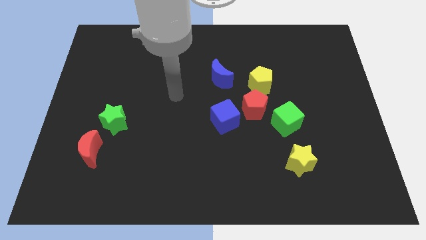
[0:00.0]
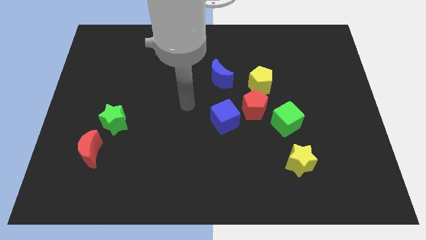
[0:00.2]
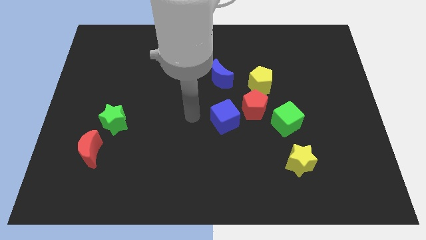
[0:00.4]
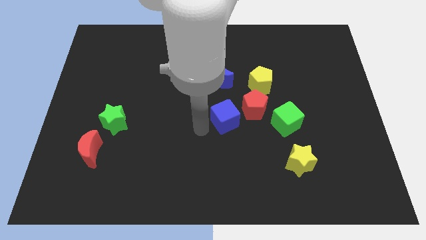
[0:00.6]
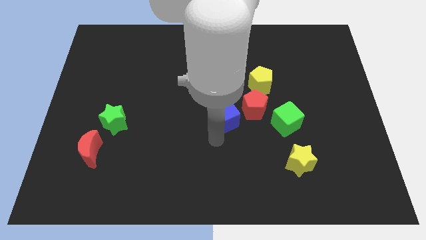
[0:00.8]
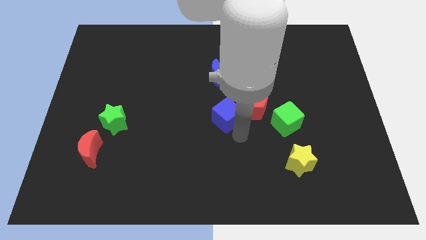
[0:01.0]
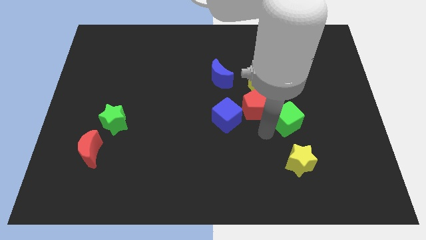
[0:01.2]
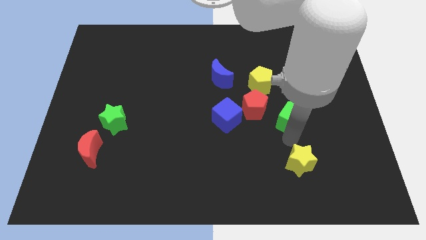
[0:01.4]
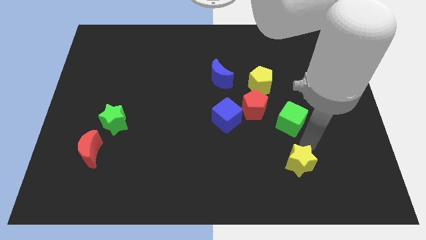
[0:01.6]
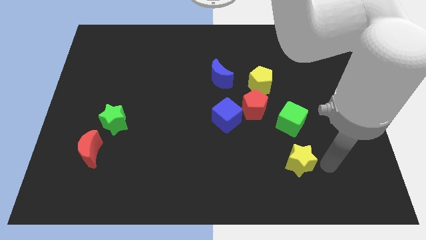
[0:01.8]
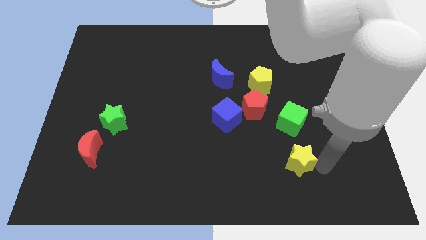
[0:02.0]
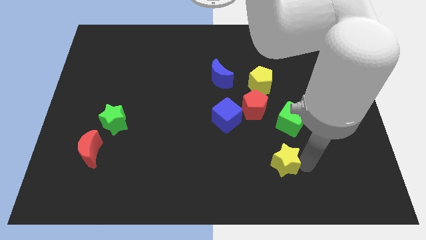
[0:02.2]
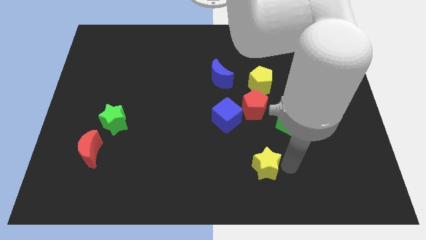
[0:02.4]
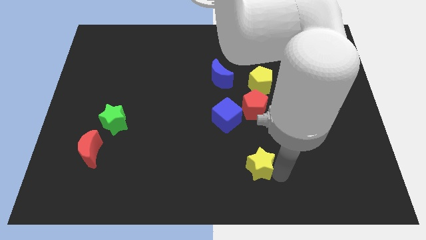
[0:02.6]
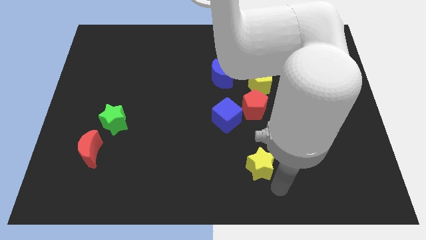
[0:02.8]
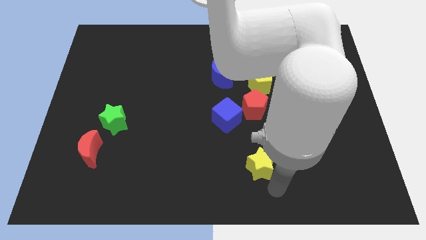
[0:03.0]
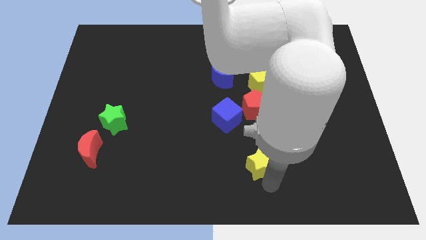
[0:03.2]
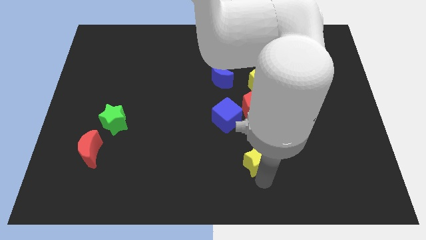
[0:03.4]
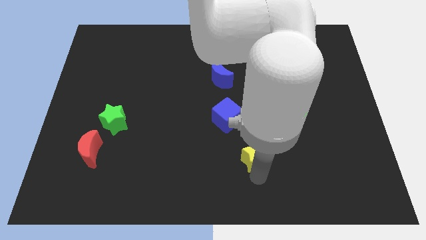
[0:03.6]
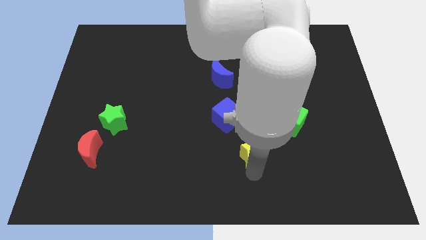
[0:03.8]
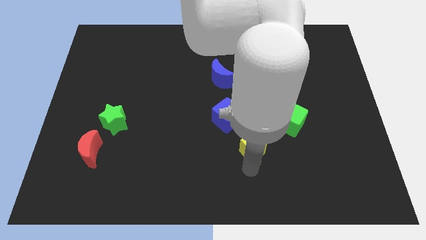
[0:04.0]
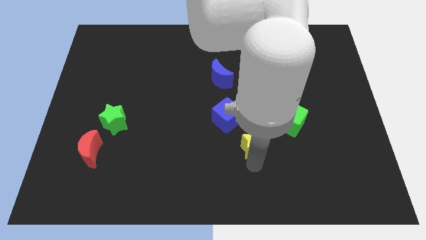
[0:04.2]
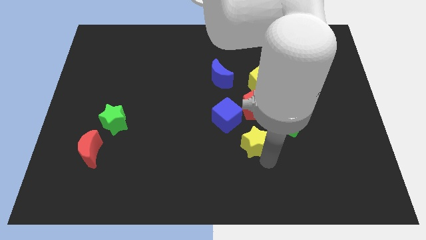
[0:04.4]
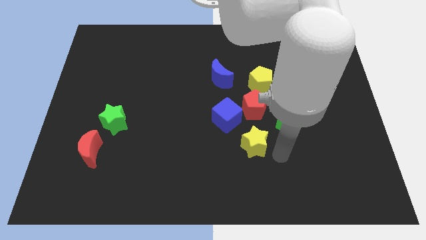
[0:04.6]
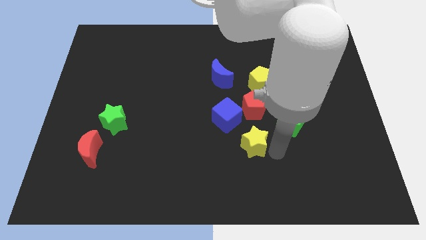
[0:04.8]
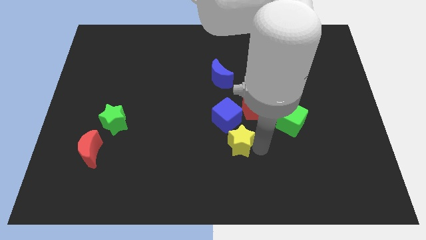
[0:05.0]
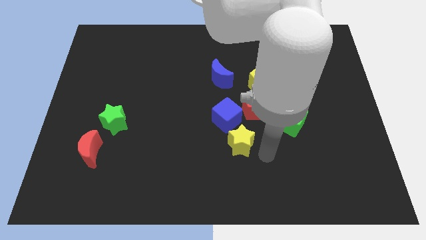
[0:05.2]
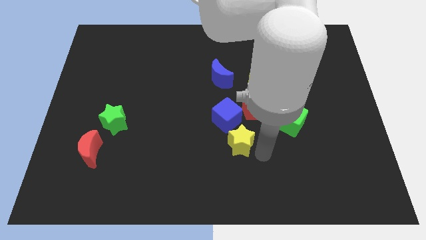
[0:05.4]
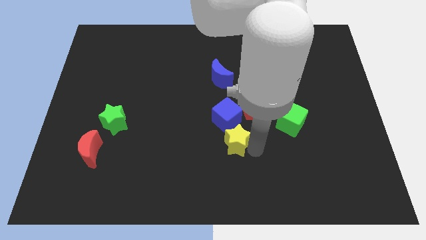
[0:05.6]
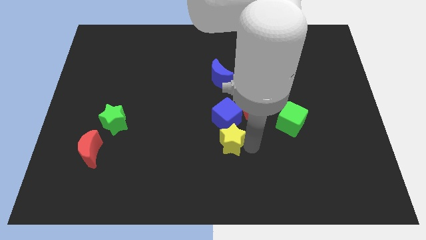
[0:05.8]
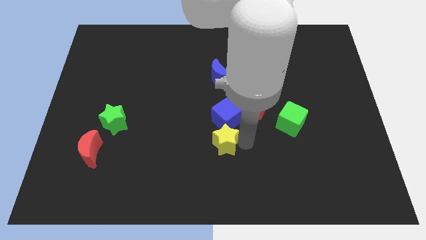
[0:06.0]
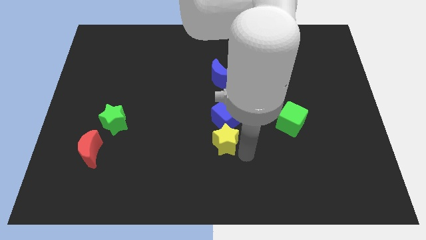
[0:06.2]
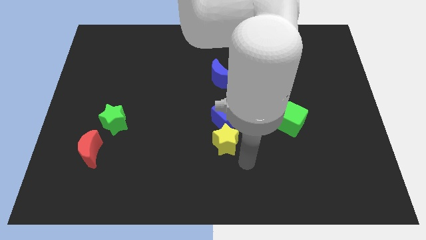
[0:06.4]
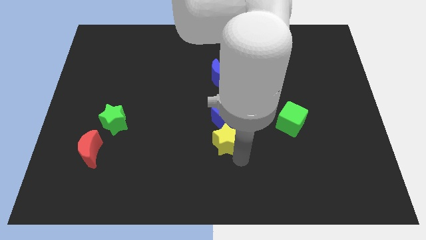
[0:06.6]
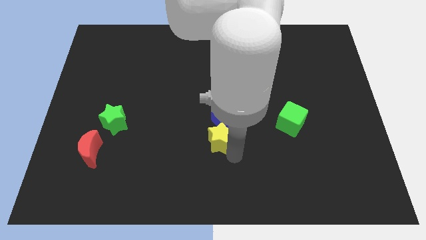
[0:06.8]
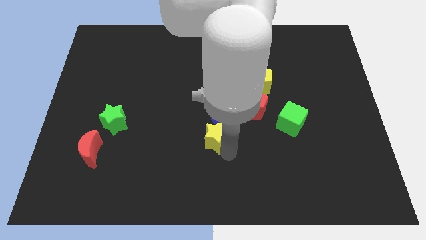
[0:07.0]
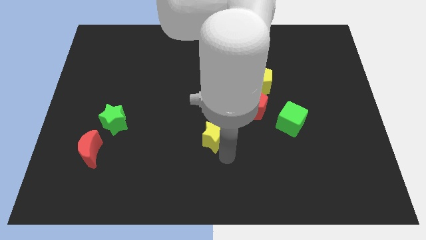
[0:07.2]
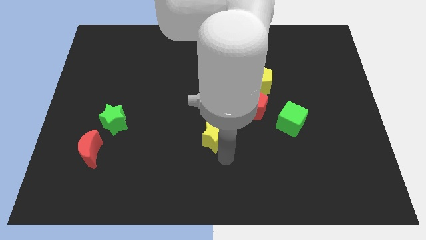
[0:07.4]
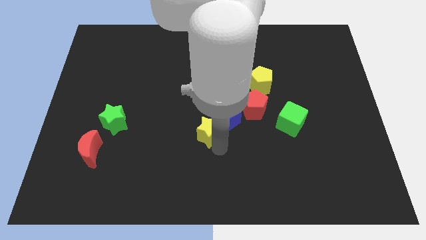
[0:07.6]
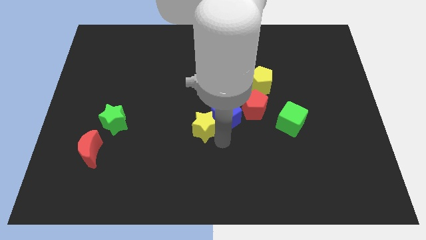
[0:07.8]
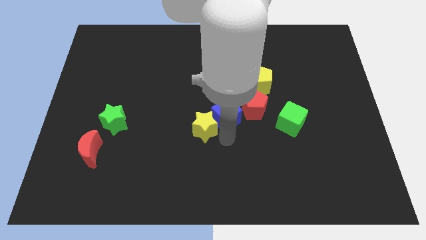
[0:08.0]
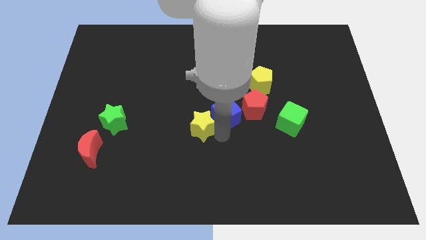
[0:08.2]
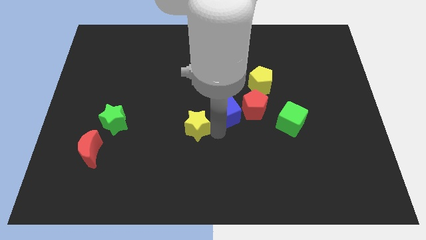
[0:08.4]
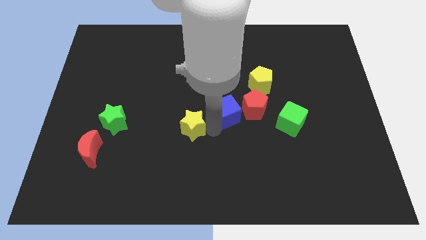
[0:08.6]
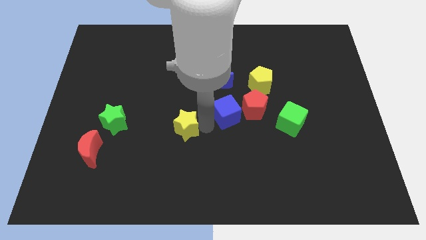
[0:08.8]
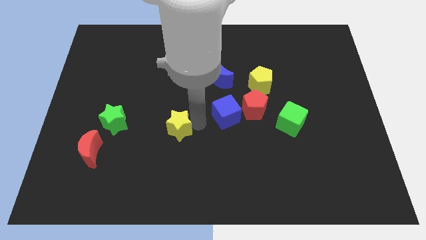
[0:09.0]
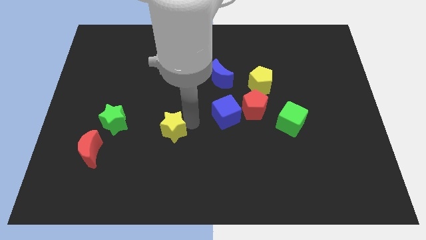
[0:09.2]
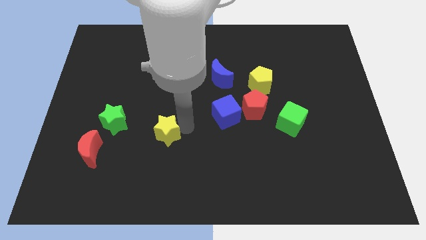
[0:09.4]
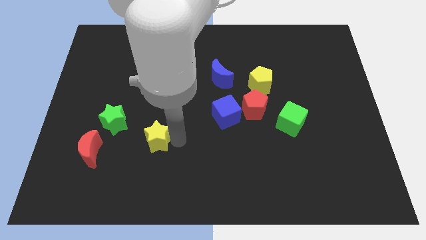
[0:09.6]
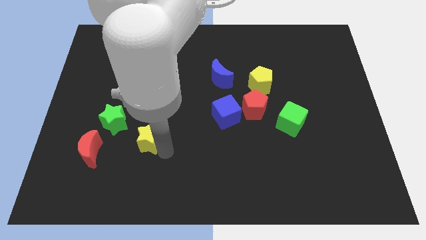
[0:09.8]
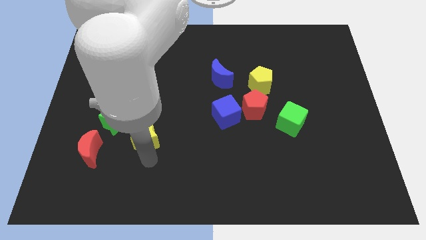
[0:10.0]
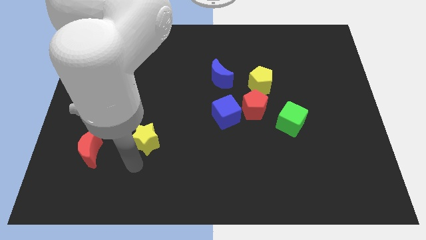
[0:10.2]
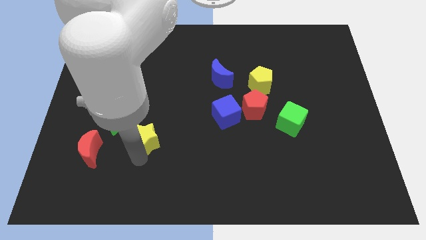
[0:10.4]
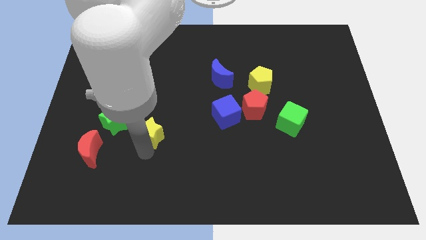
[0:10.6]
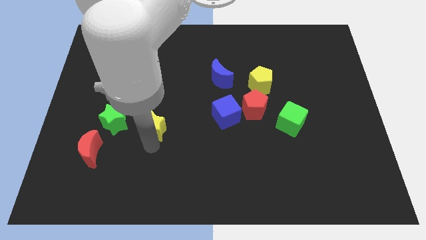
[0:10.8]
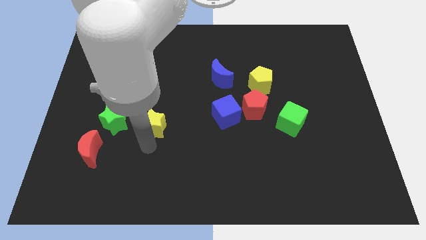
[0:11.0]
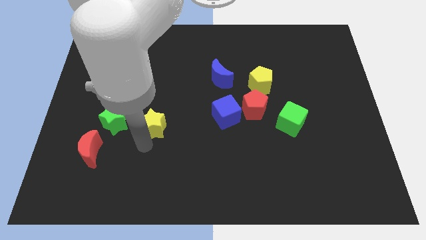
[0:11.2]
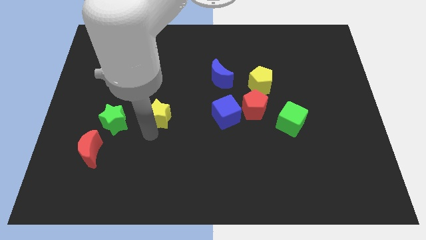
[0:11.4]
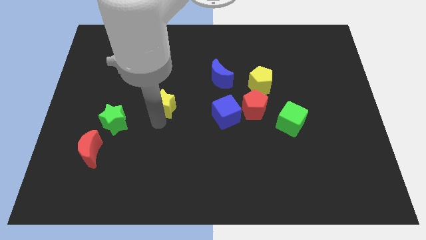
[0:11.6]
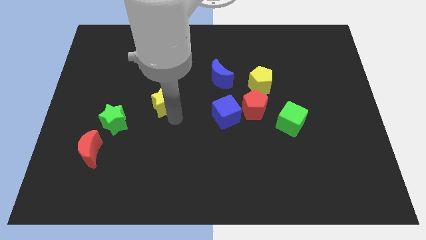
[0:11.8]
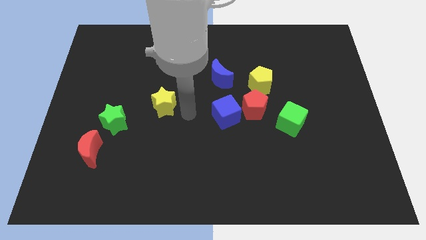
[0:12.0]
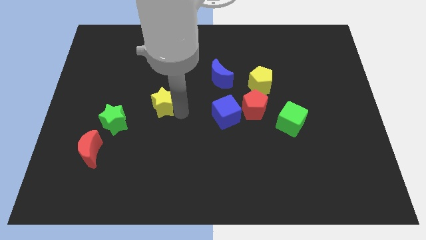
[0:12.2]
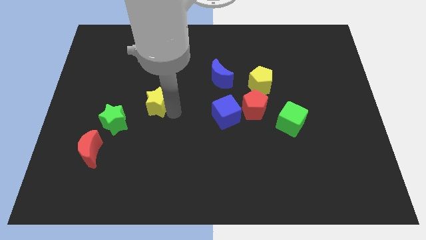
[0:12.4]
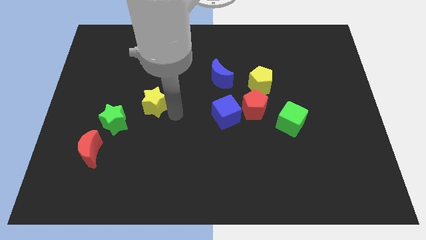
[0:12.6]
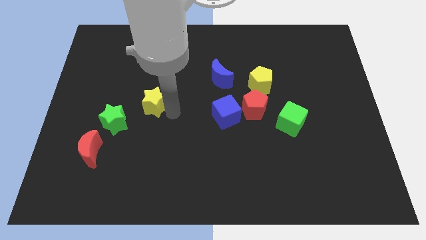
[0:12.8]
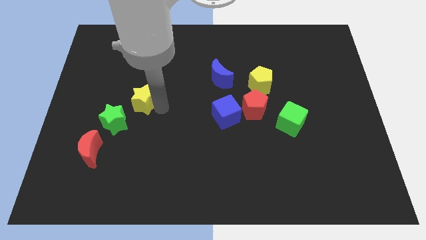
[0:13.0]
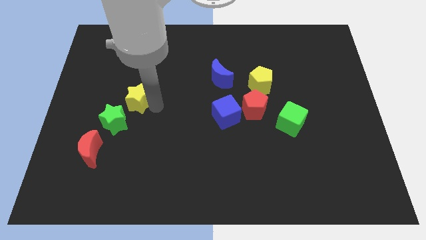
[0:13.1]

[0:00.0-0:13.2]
push the yellow star to the top side of the green star

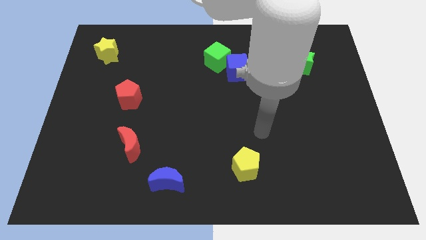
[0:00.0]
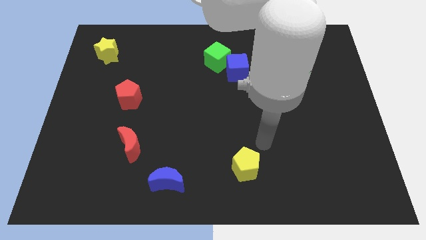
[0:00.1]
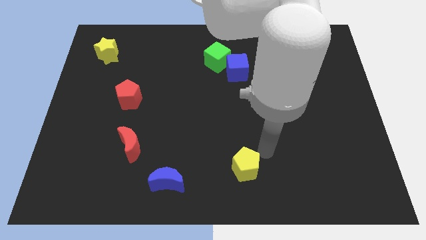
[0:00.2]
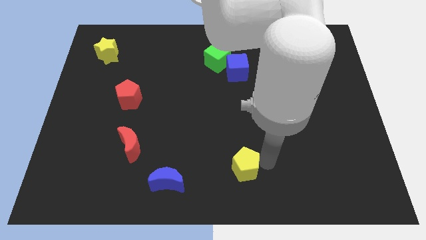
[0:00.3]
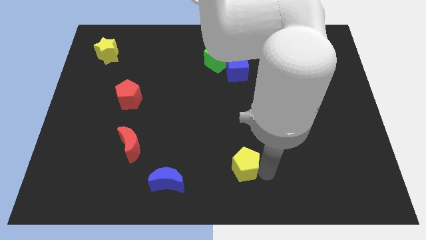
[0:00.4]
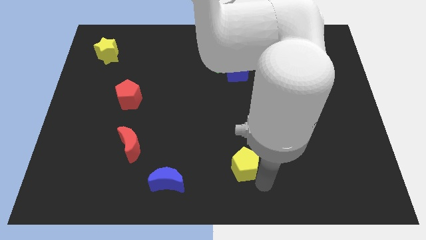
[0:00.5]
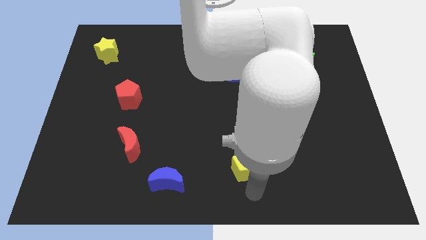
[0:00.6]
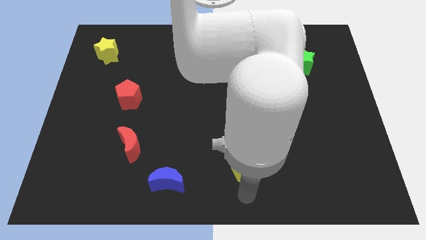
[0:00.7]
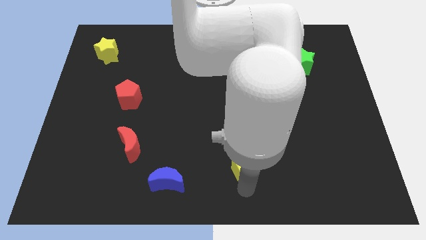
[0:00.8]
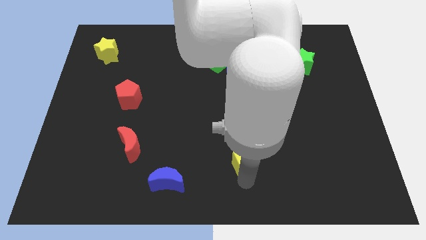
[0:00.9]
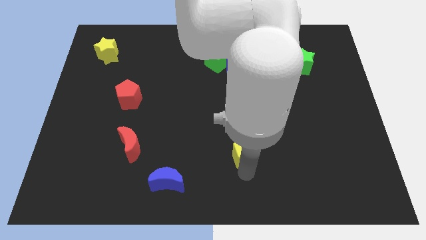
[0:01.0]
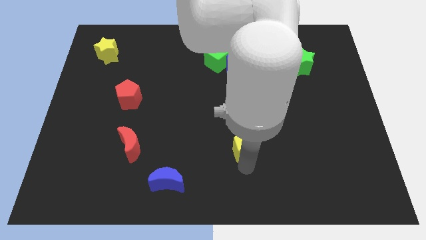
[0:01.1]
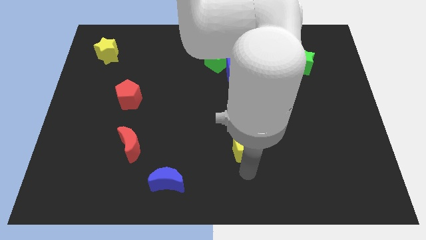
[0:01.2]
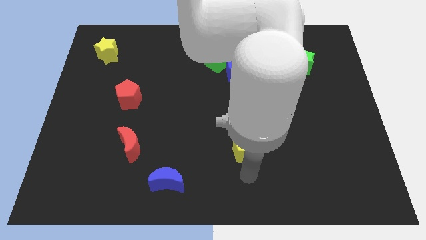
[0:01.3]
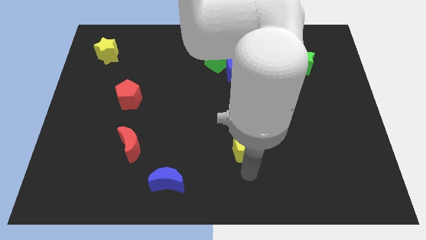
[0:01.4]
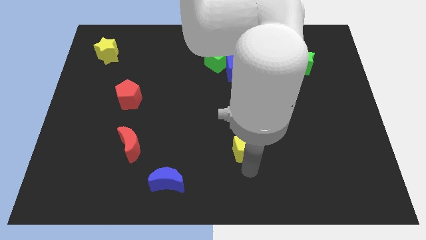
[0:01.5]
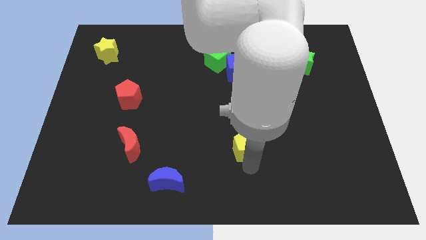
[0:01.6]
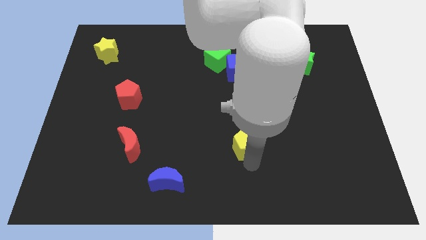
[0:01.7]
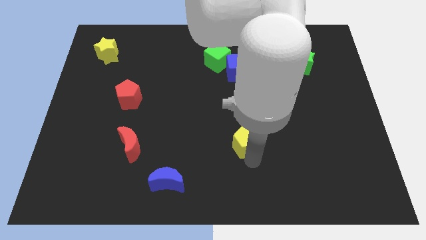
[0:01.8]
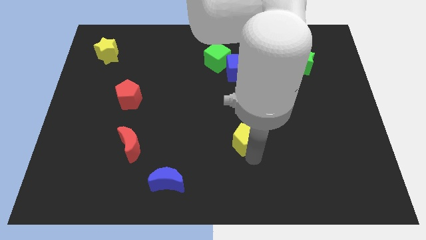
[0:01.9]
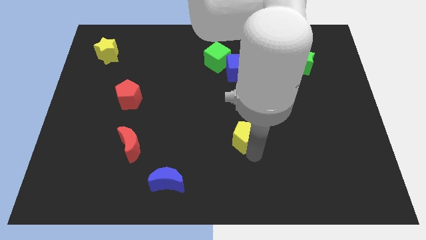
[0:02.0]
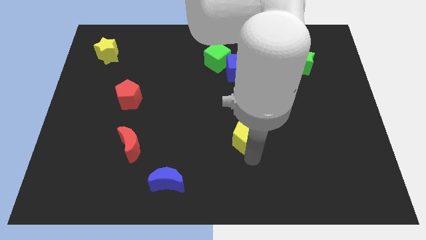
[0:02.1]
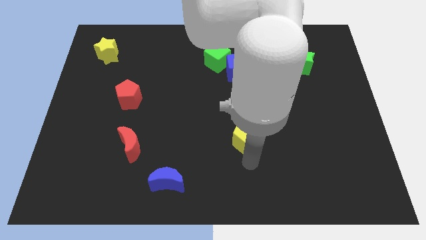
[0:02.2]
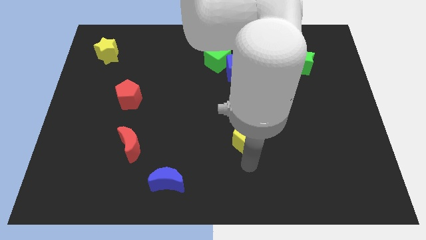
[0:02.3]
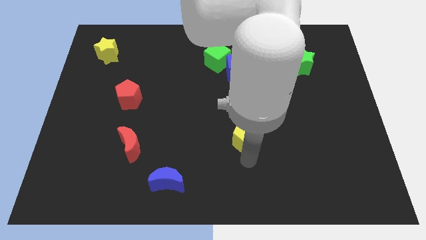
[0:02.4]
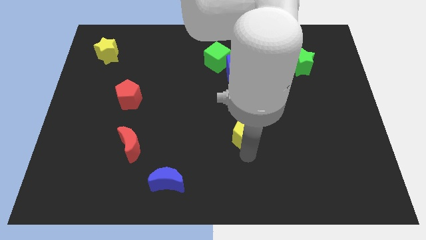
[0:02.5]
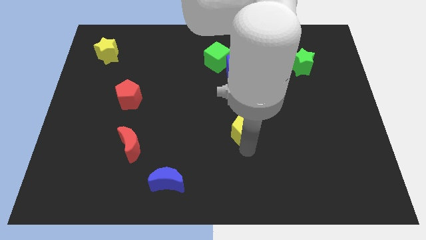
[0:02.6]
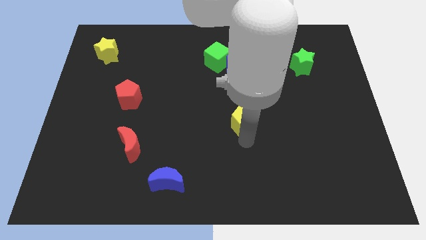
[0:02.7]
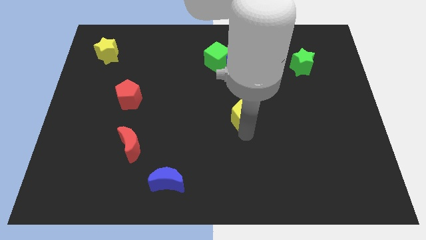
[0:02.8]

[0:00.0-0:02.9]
slide the yellow pentagon to the bottom of the blue cube
